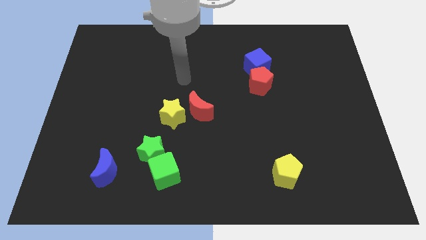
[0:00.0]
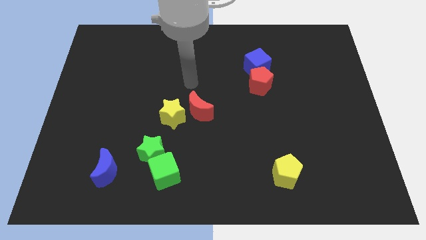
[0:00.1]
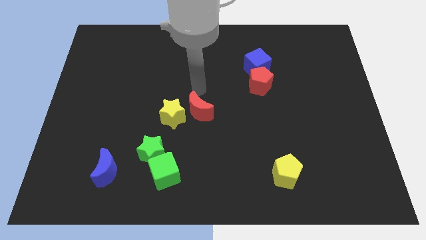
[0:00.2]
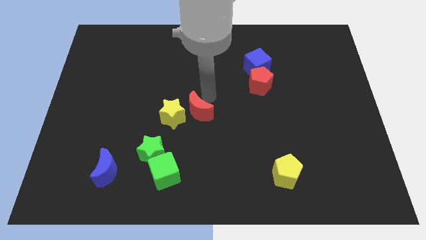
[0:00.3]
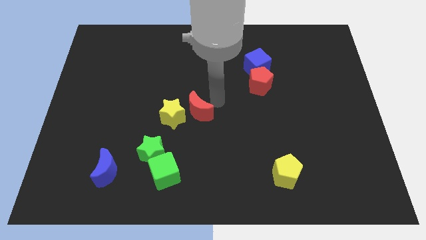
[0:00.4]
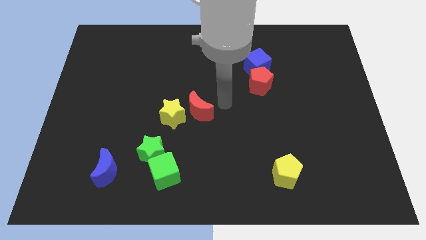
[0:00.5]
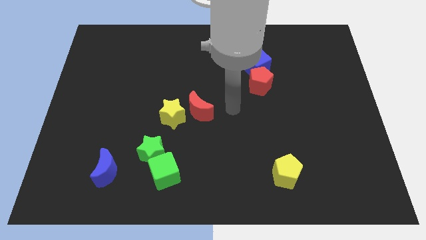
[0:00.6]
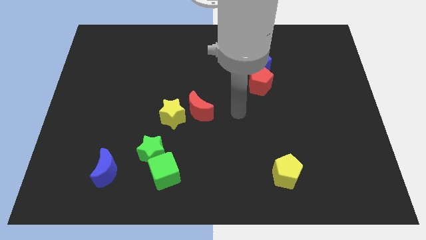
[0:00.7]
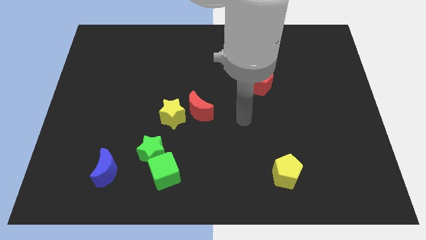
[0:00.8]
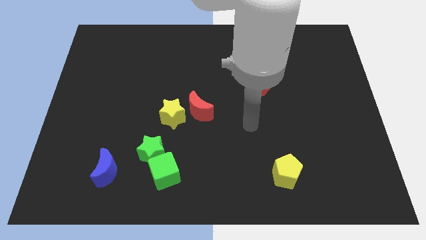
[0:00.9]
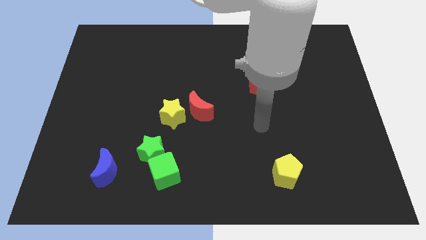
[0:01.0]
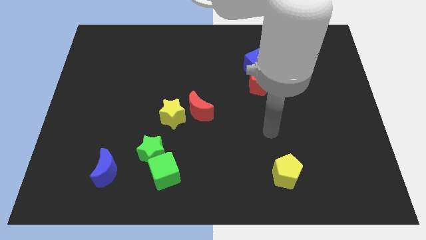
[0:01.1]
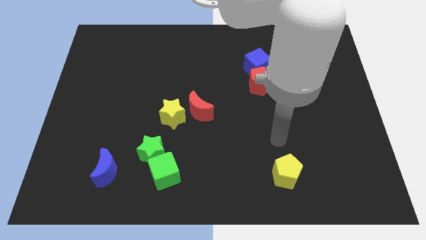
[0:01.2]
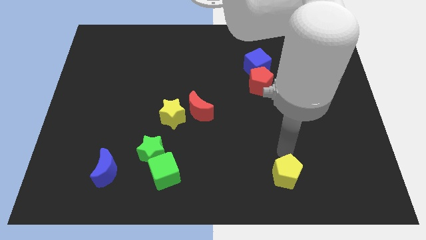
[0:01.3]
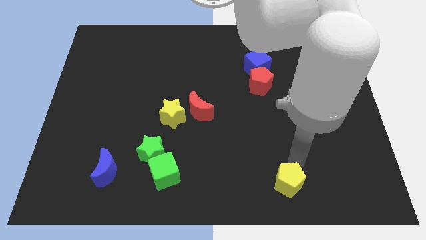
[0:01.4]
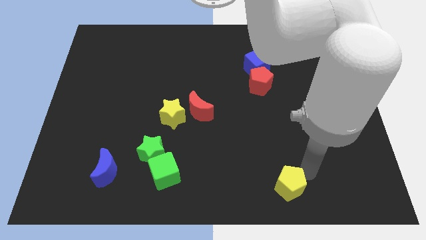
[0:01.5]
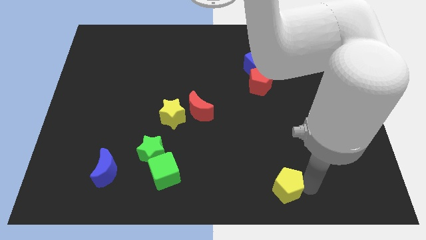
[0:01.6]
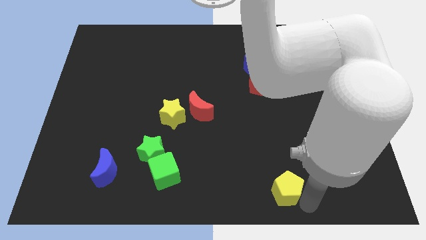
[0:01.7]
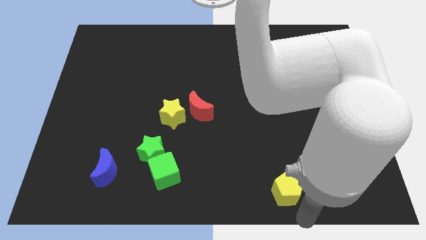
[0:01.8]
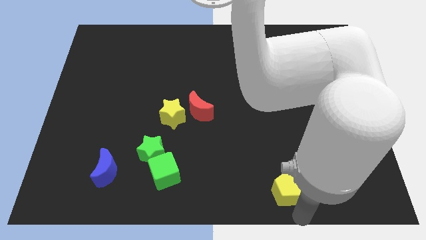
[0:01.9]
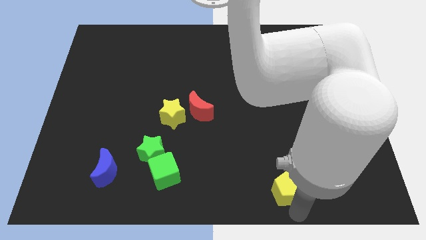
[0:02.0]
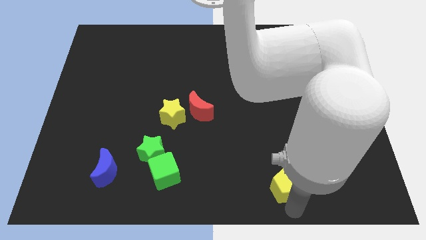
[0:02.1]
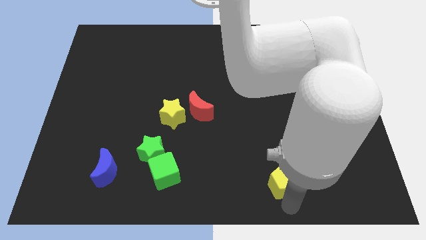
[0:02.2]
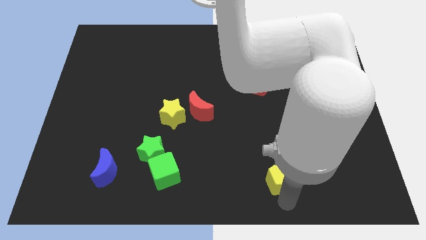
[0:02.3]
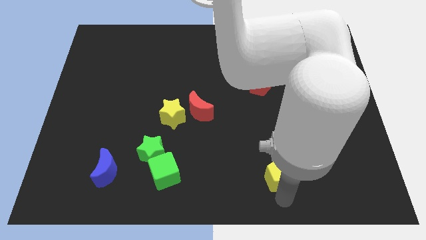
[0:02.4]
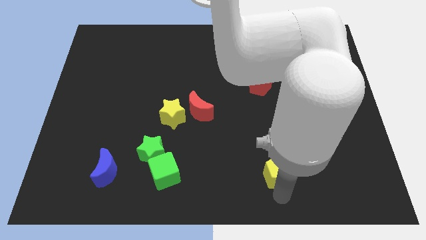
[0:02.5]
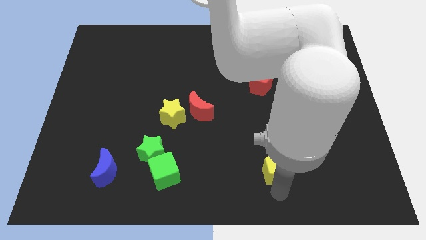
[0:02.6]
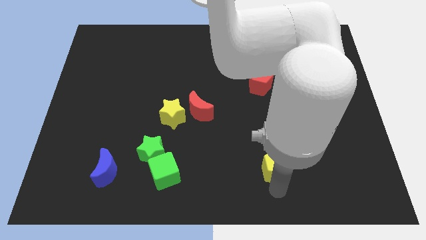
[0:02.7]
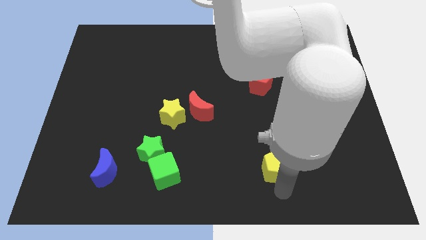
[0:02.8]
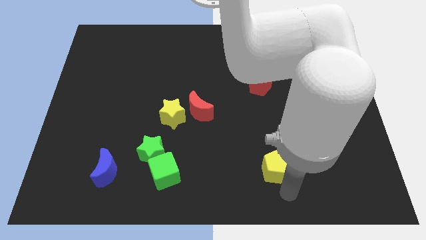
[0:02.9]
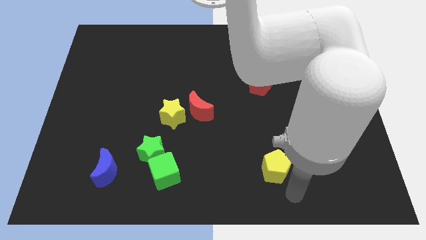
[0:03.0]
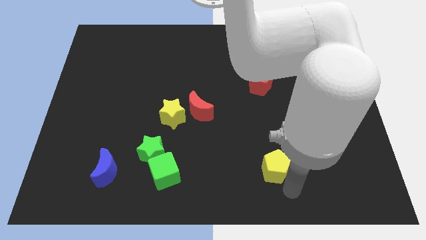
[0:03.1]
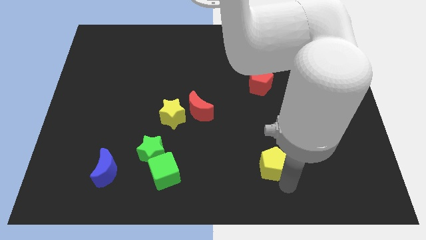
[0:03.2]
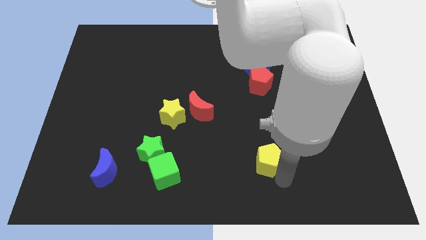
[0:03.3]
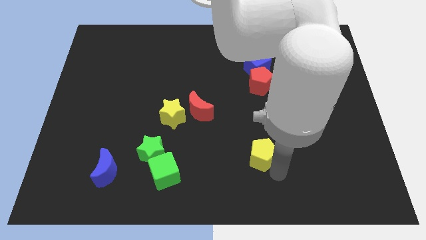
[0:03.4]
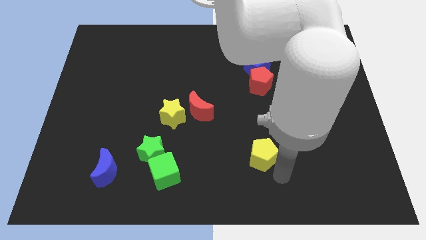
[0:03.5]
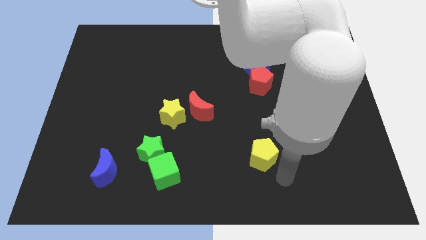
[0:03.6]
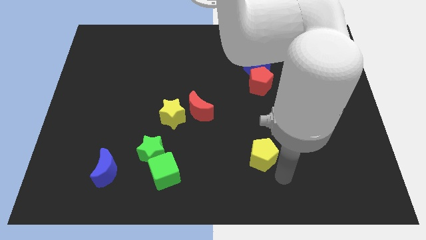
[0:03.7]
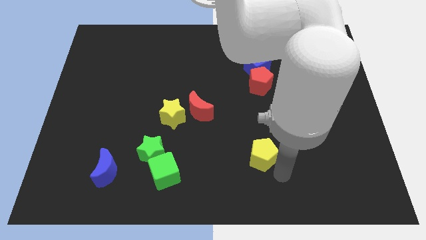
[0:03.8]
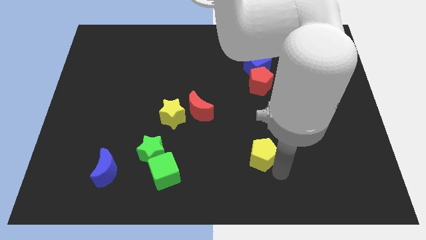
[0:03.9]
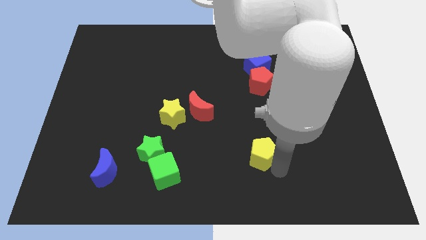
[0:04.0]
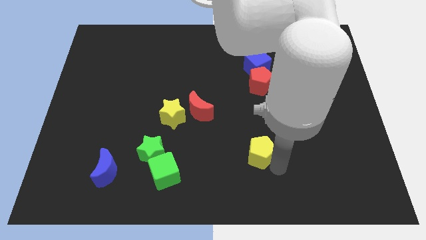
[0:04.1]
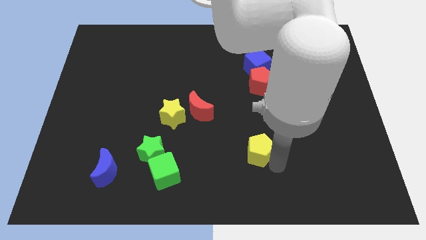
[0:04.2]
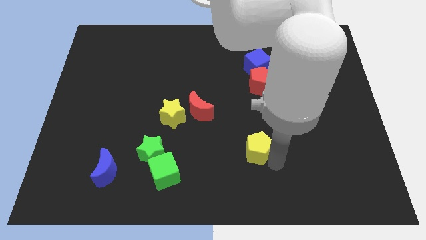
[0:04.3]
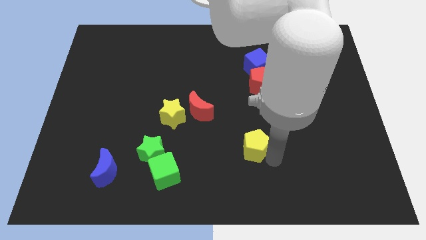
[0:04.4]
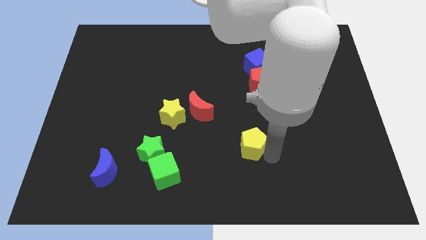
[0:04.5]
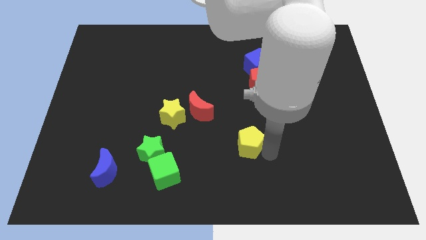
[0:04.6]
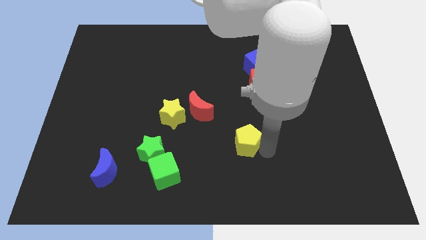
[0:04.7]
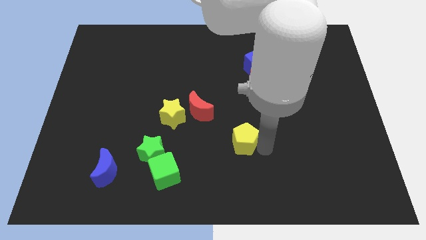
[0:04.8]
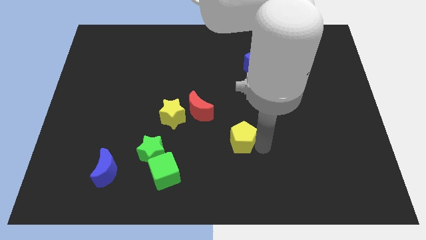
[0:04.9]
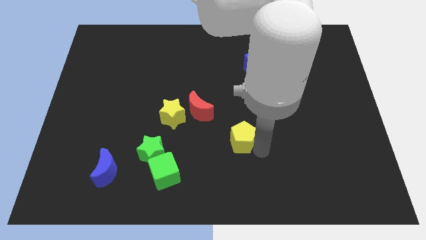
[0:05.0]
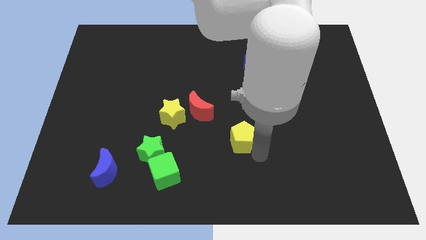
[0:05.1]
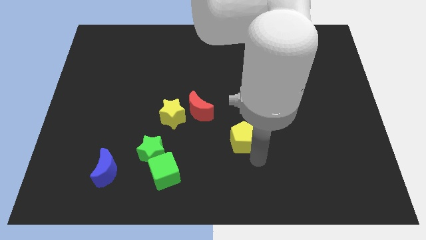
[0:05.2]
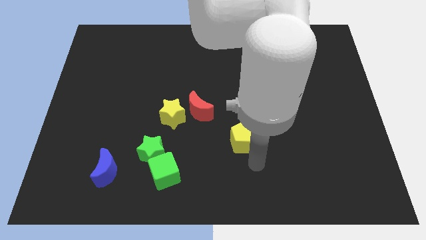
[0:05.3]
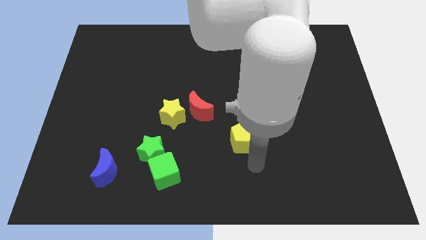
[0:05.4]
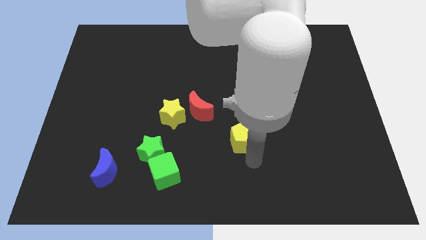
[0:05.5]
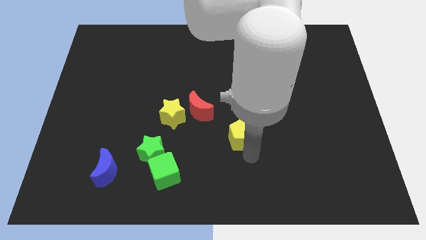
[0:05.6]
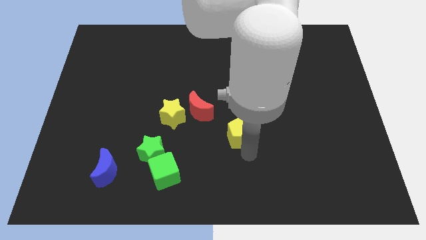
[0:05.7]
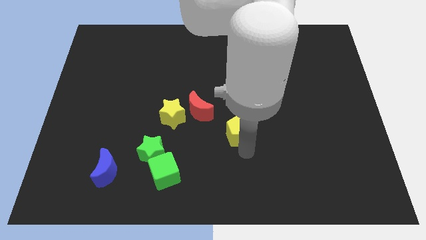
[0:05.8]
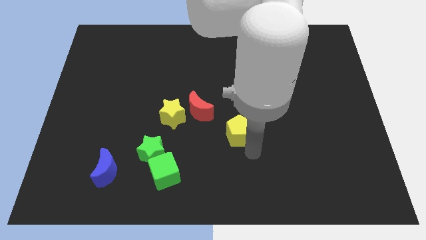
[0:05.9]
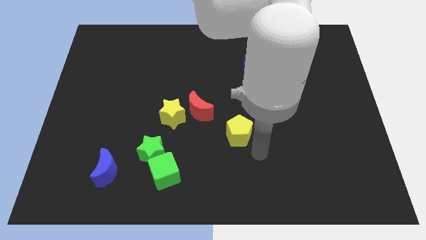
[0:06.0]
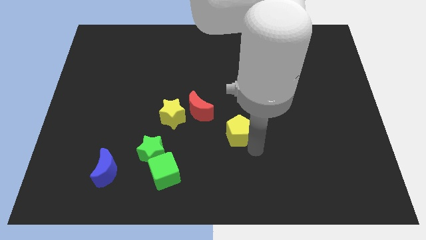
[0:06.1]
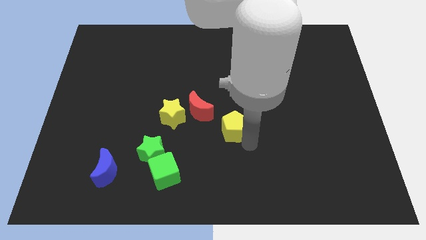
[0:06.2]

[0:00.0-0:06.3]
put the yellow pentagon to the right of the yellow star

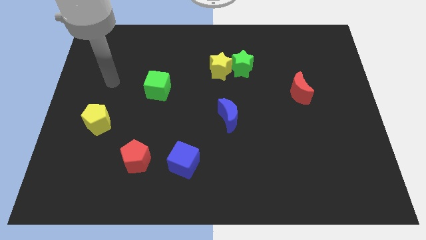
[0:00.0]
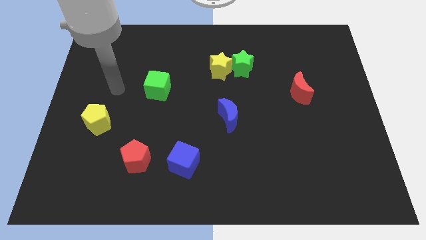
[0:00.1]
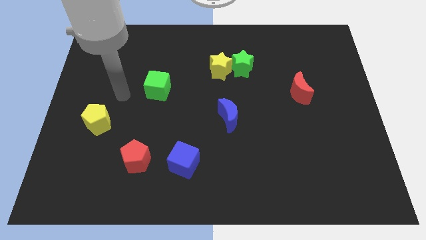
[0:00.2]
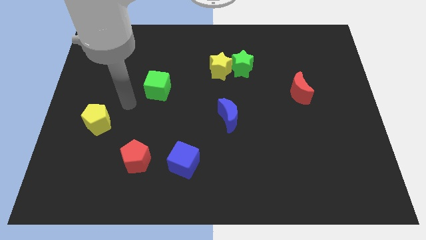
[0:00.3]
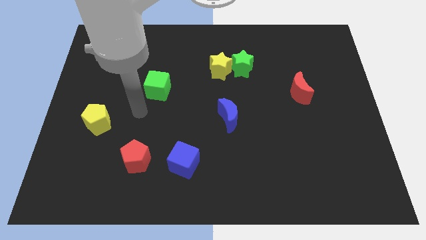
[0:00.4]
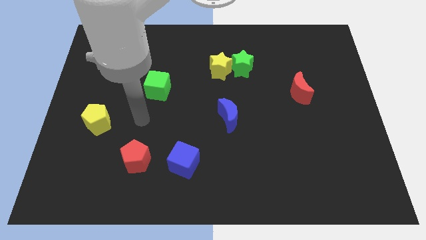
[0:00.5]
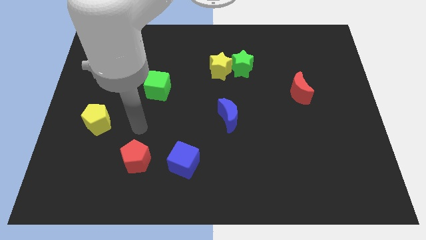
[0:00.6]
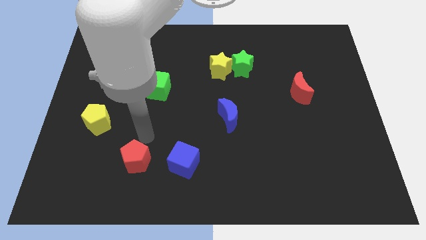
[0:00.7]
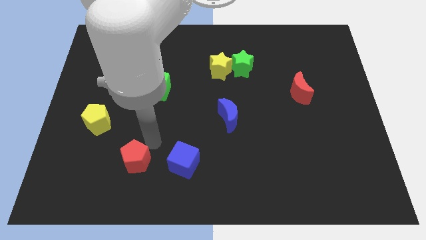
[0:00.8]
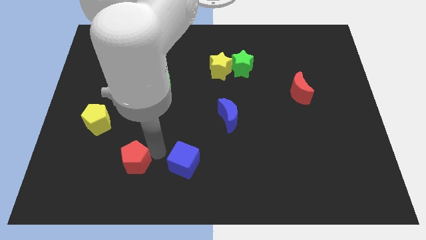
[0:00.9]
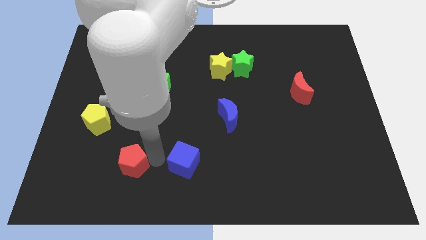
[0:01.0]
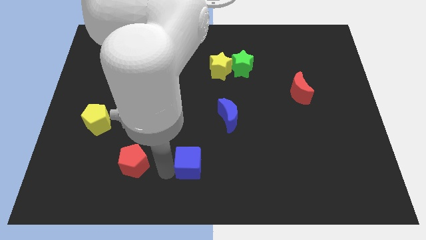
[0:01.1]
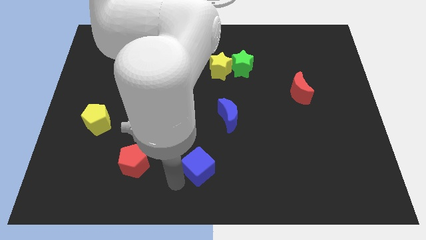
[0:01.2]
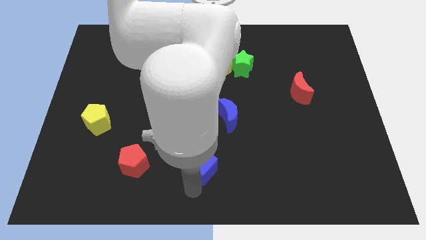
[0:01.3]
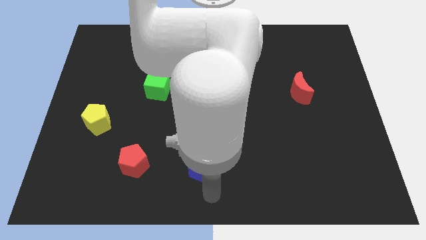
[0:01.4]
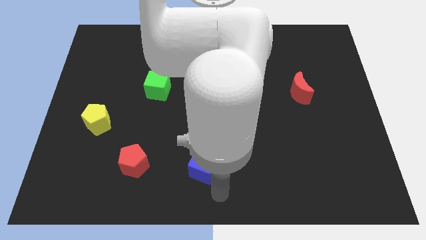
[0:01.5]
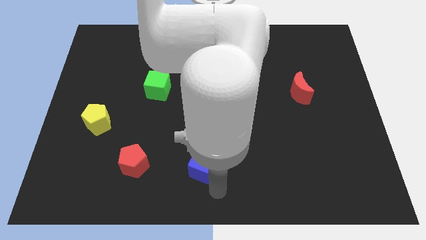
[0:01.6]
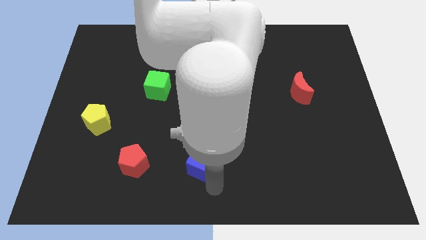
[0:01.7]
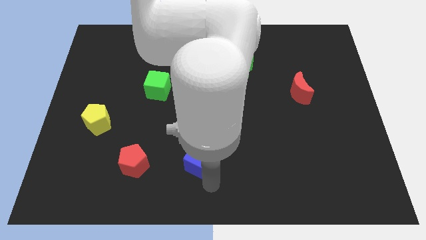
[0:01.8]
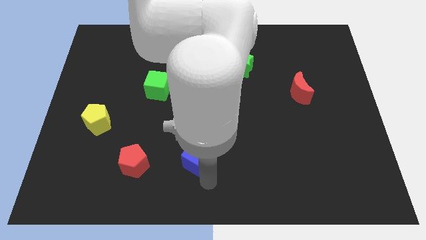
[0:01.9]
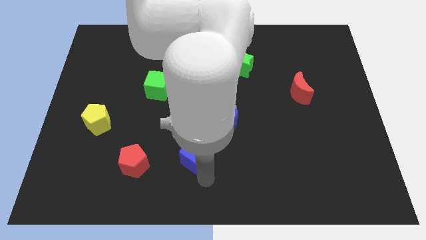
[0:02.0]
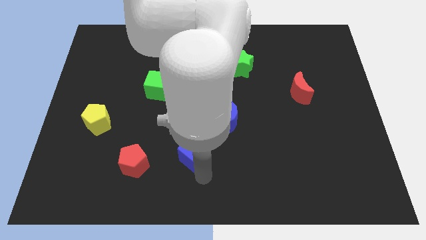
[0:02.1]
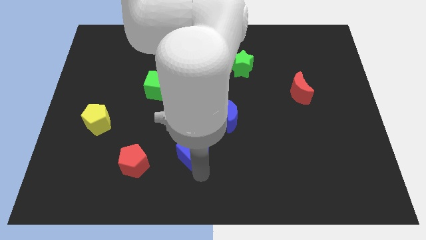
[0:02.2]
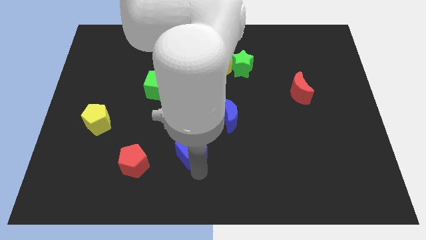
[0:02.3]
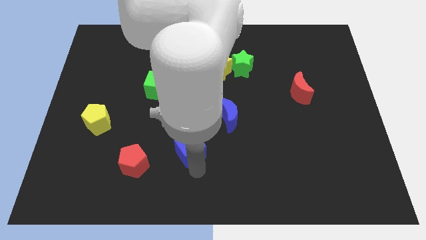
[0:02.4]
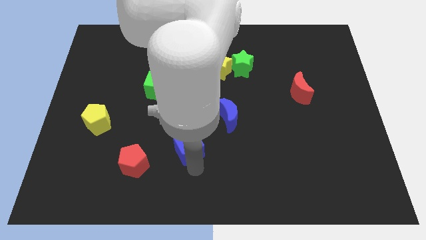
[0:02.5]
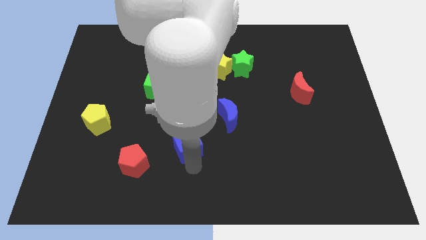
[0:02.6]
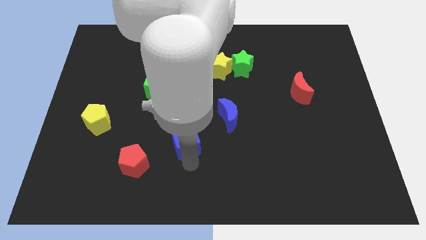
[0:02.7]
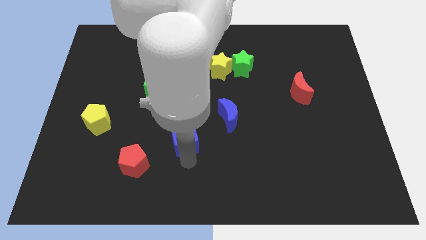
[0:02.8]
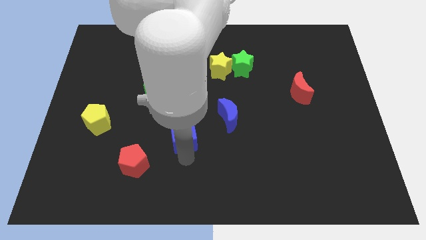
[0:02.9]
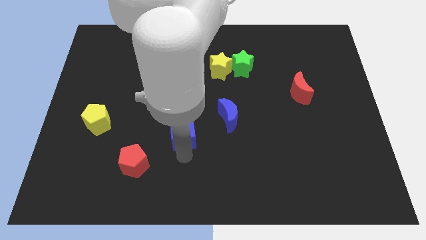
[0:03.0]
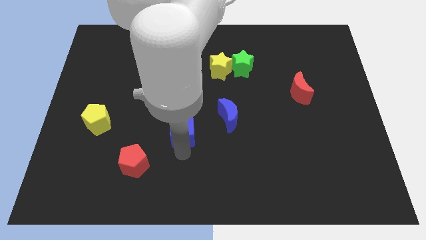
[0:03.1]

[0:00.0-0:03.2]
push the blue cube to the left side of the blue moon
